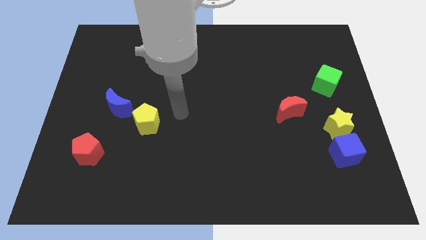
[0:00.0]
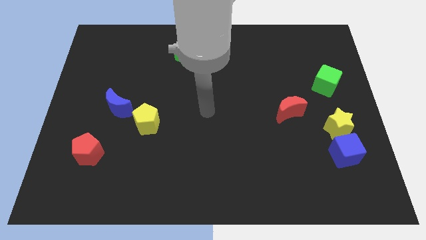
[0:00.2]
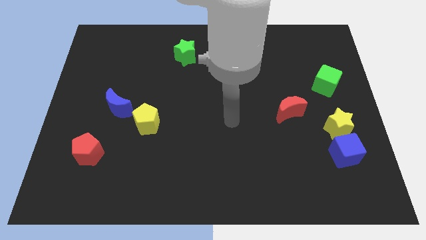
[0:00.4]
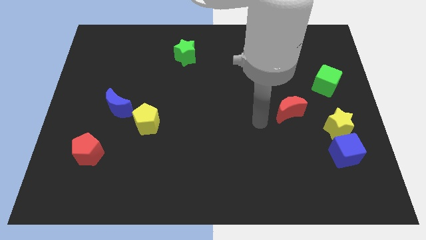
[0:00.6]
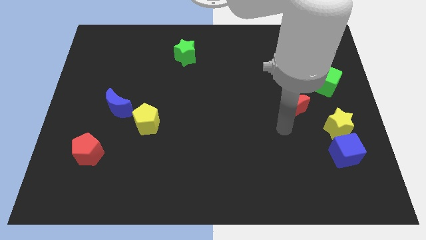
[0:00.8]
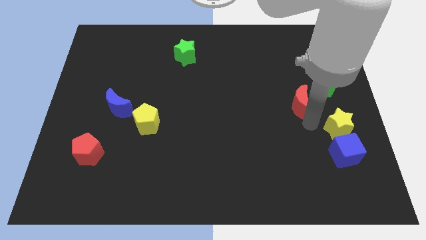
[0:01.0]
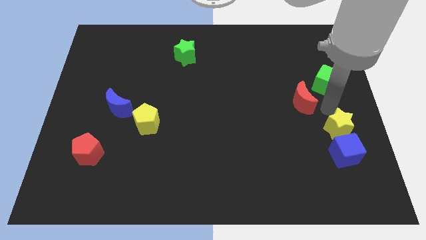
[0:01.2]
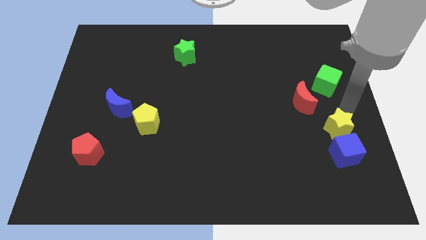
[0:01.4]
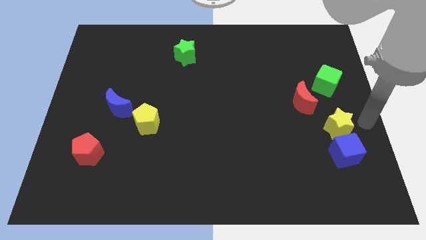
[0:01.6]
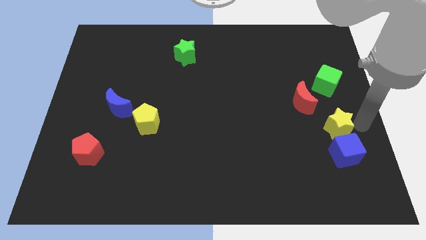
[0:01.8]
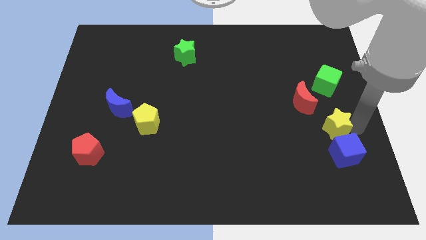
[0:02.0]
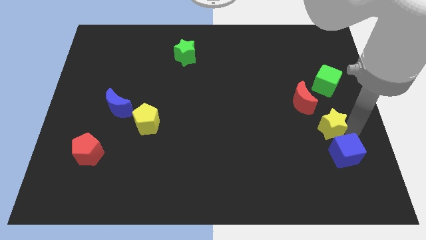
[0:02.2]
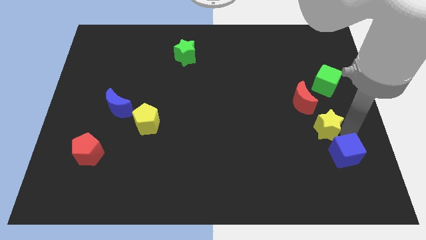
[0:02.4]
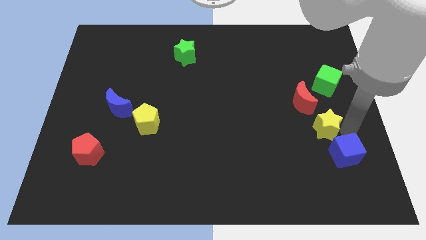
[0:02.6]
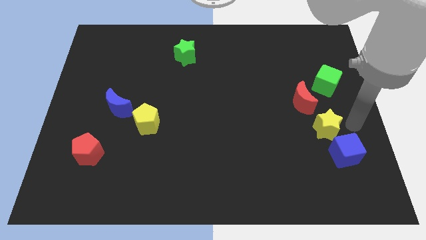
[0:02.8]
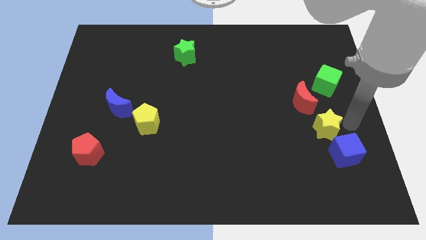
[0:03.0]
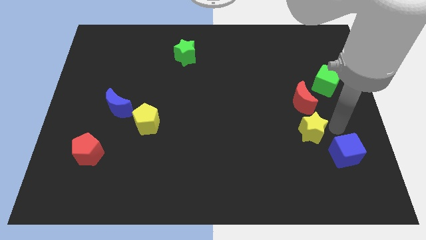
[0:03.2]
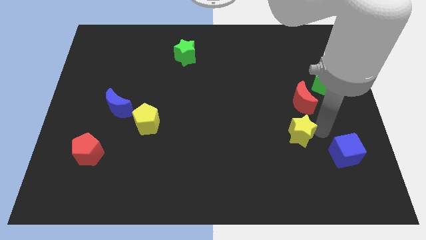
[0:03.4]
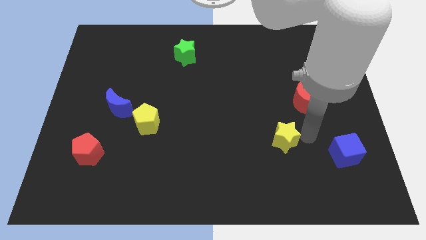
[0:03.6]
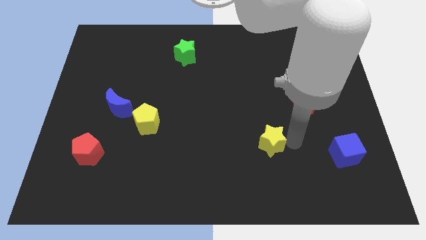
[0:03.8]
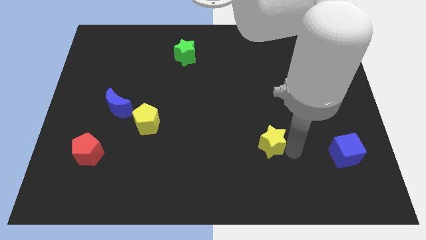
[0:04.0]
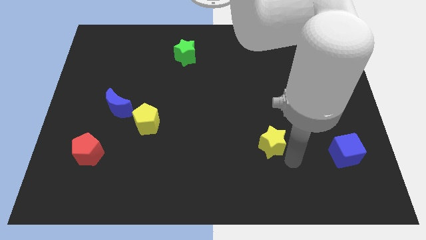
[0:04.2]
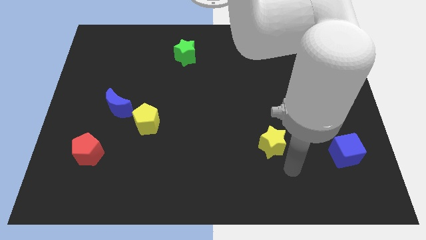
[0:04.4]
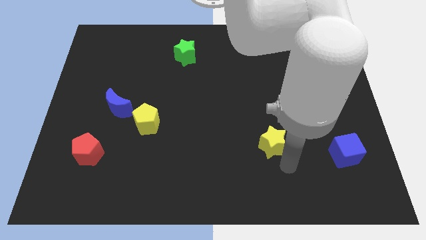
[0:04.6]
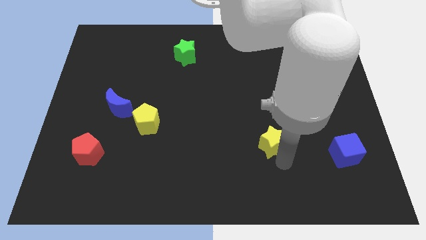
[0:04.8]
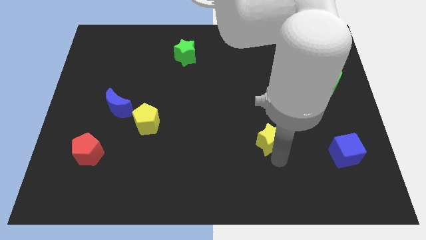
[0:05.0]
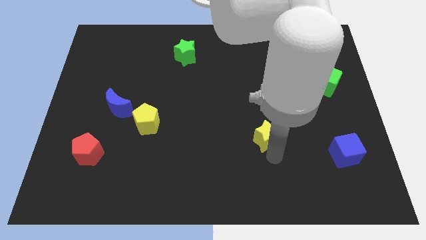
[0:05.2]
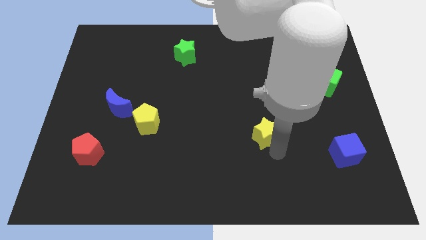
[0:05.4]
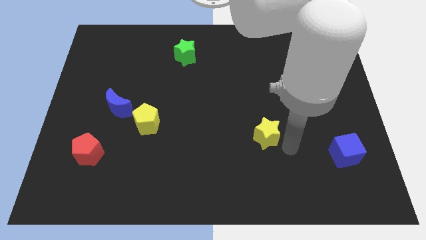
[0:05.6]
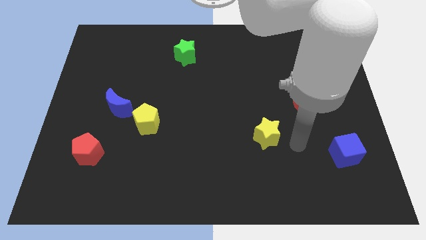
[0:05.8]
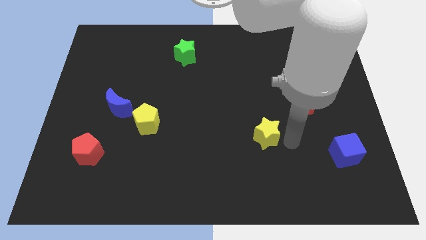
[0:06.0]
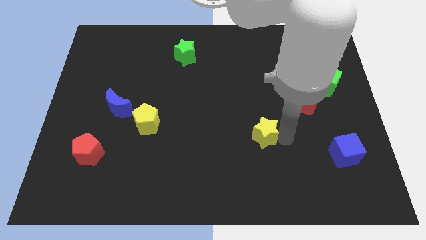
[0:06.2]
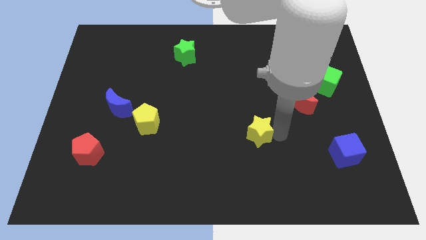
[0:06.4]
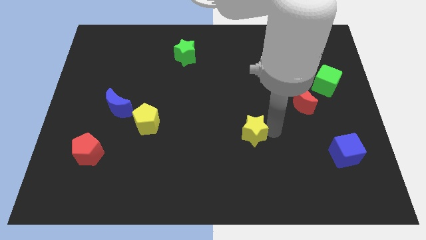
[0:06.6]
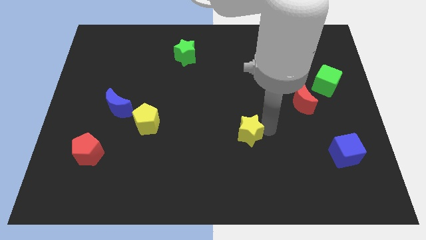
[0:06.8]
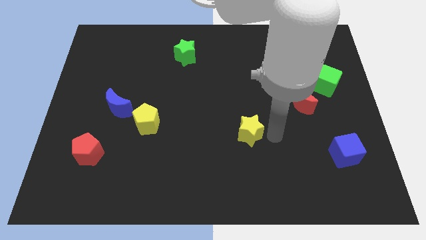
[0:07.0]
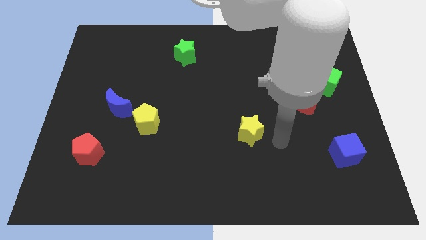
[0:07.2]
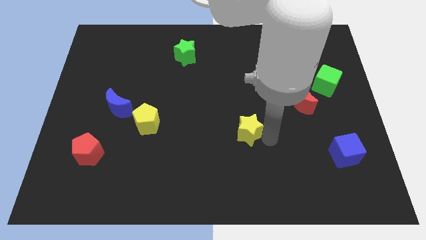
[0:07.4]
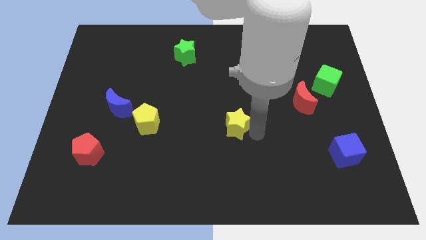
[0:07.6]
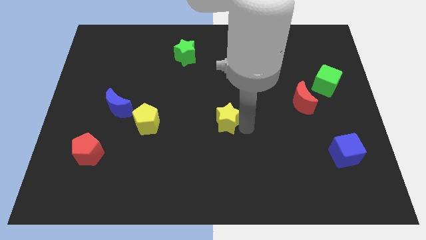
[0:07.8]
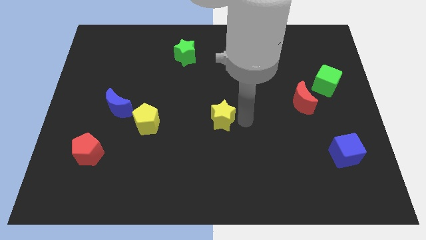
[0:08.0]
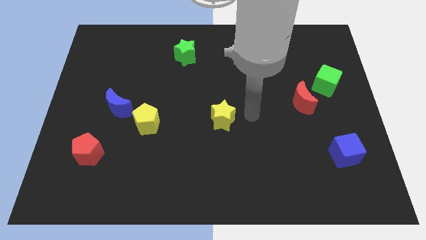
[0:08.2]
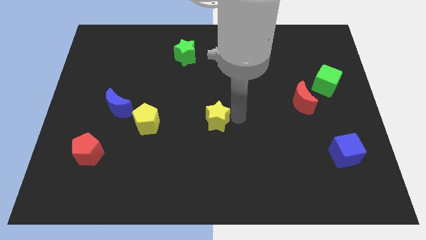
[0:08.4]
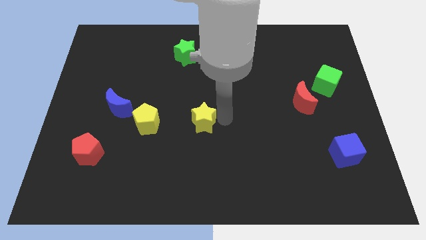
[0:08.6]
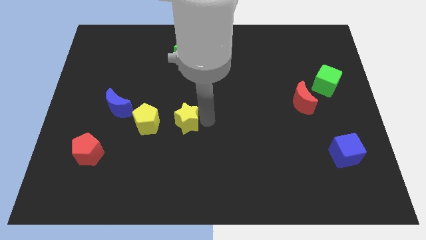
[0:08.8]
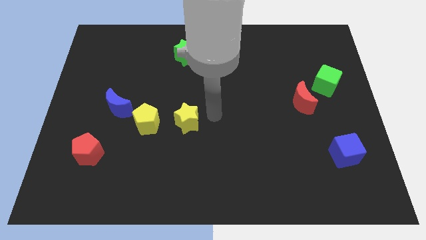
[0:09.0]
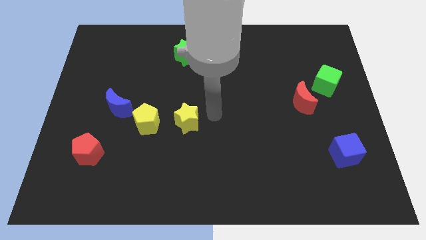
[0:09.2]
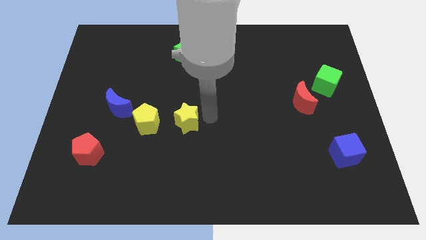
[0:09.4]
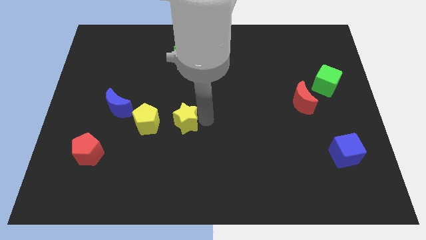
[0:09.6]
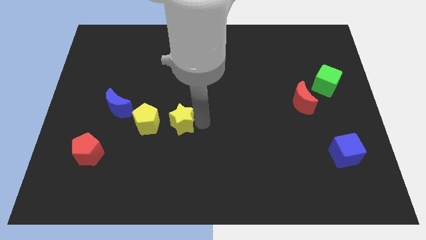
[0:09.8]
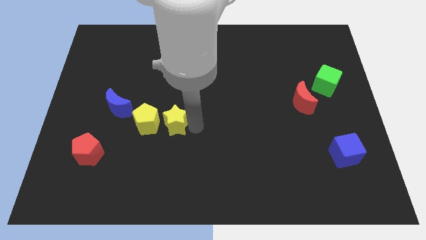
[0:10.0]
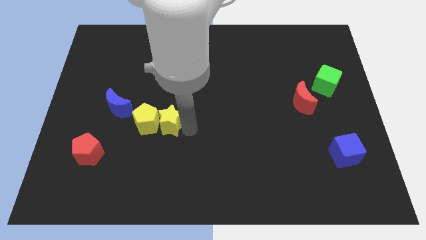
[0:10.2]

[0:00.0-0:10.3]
push the yellow star to the yellow pentagon

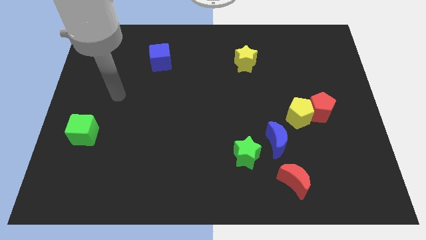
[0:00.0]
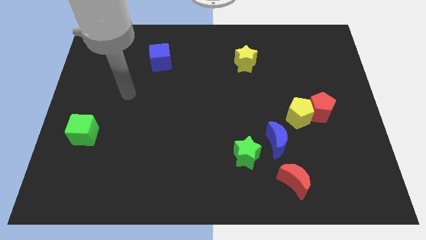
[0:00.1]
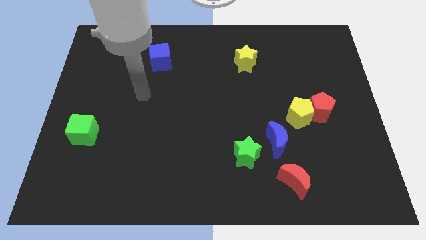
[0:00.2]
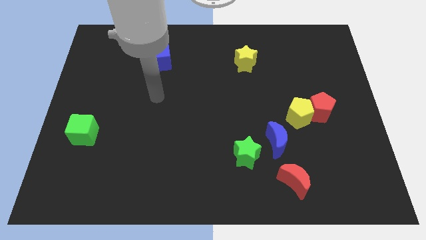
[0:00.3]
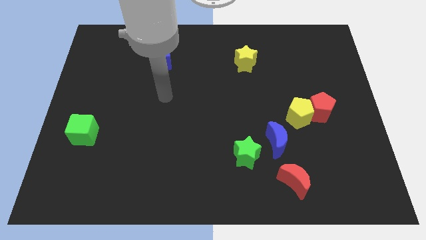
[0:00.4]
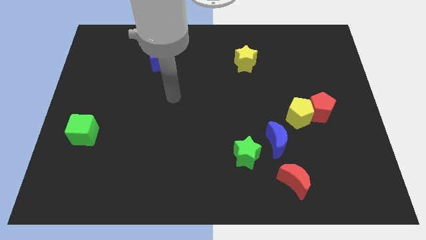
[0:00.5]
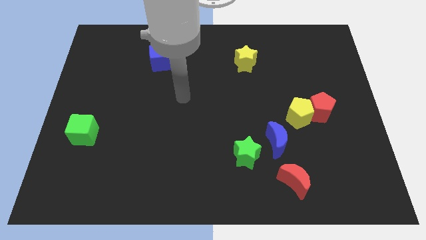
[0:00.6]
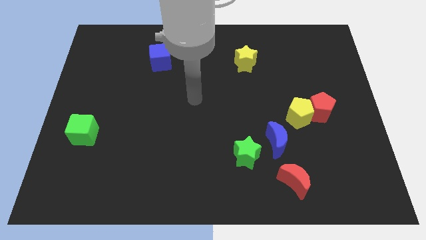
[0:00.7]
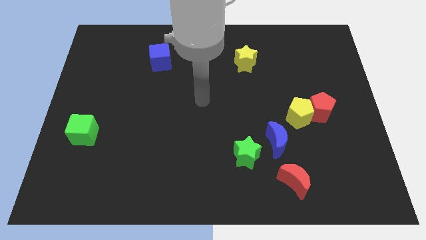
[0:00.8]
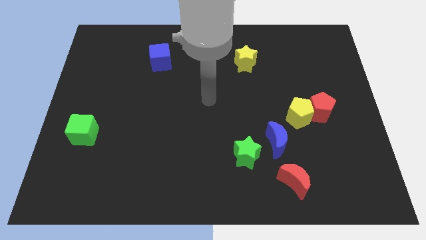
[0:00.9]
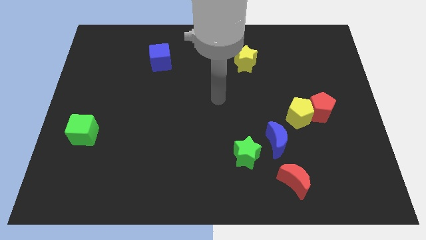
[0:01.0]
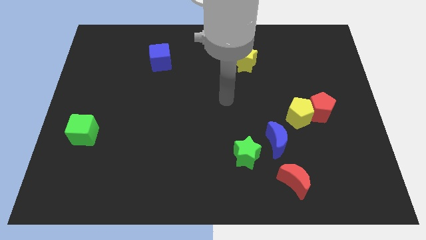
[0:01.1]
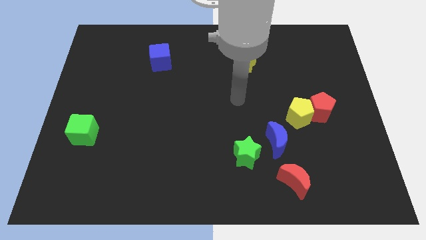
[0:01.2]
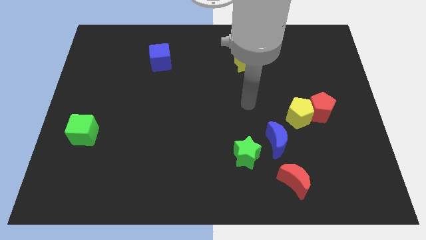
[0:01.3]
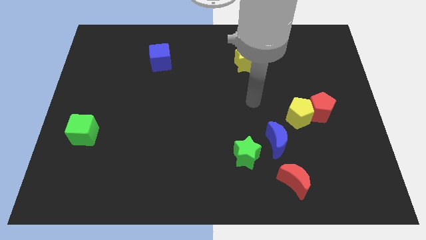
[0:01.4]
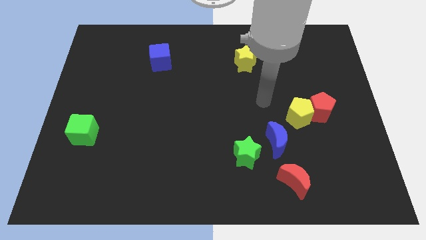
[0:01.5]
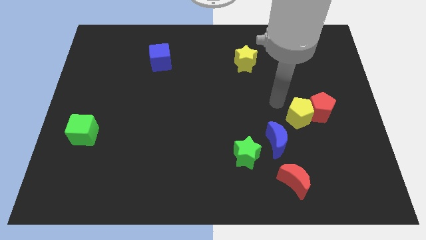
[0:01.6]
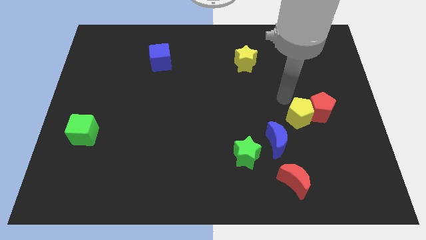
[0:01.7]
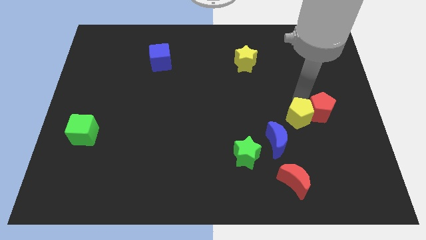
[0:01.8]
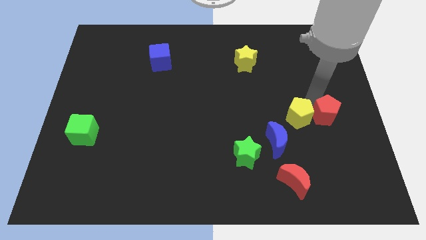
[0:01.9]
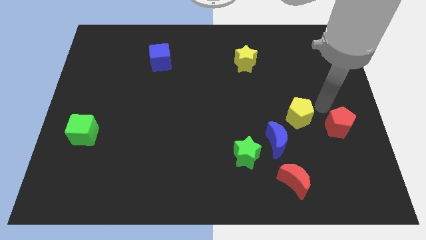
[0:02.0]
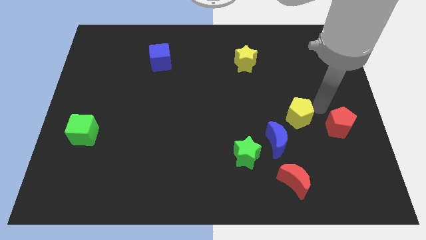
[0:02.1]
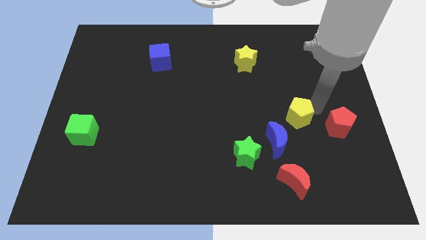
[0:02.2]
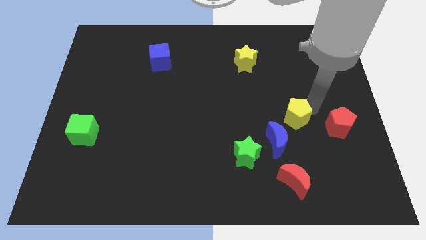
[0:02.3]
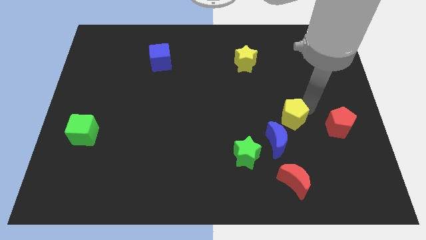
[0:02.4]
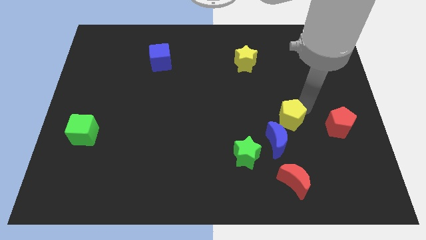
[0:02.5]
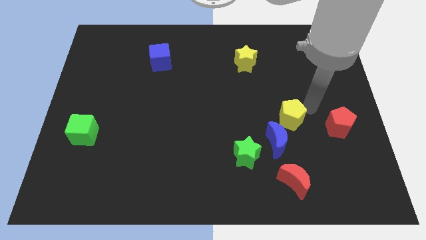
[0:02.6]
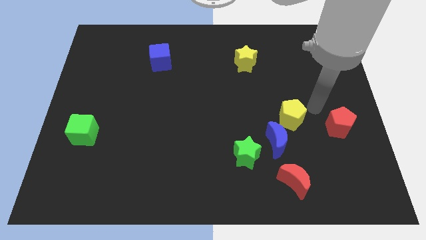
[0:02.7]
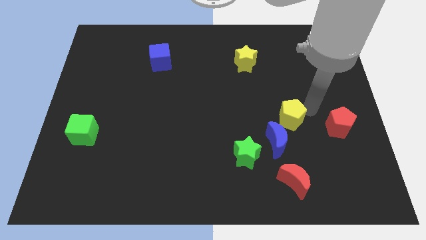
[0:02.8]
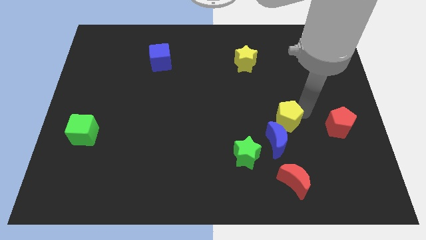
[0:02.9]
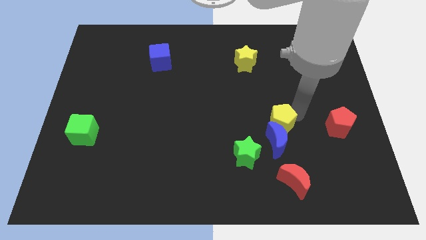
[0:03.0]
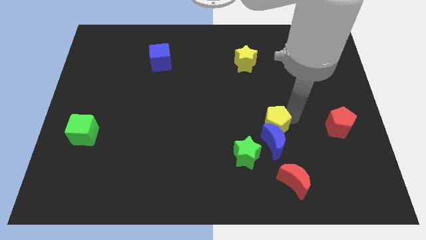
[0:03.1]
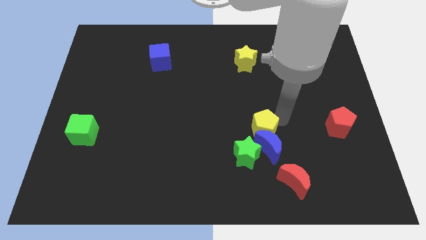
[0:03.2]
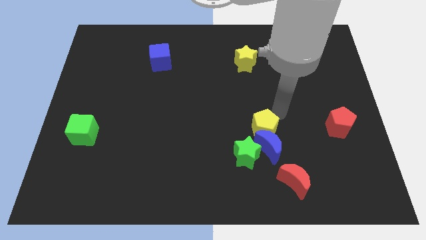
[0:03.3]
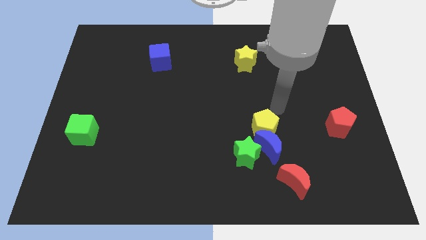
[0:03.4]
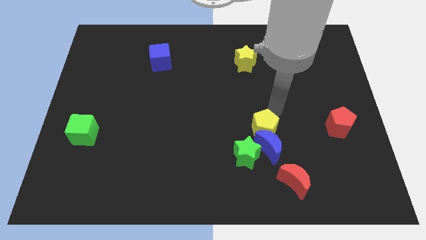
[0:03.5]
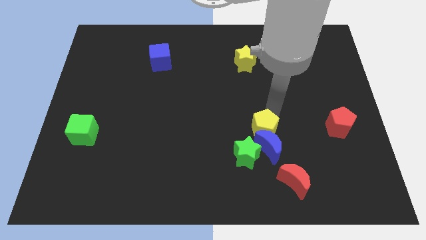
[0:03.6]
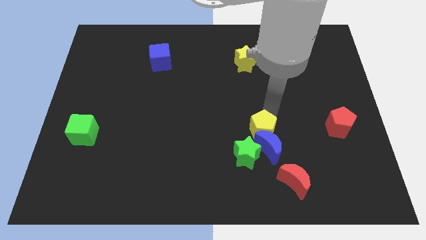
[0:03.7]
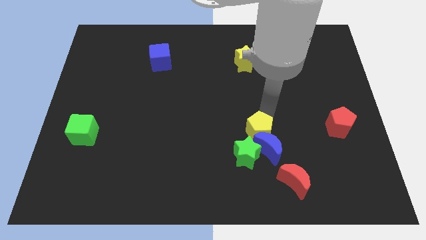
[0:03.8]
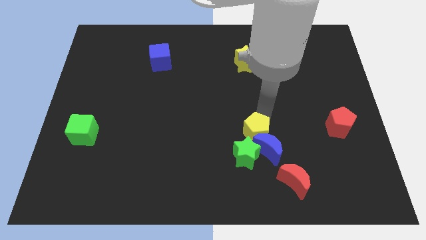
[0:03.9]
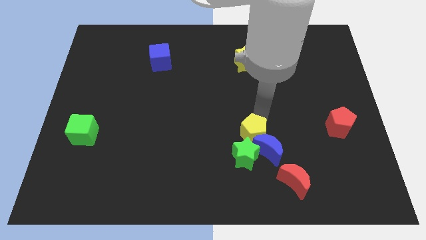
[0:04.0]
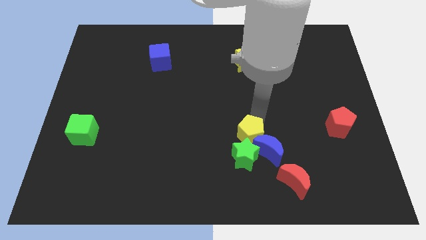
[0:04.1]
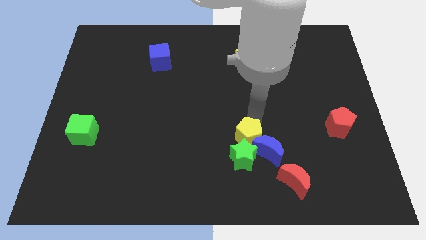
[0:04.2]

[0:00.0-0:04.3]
move the yellow pentagon next to the green star
